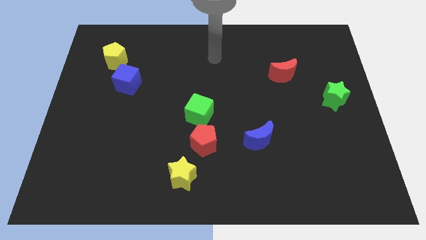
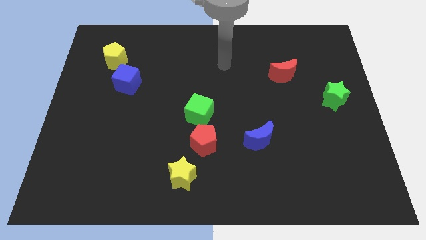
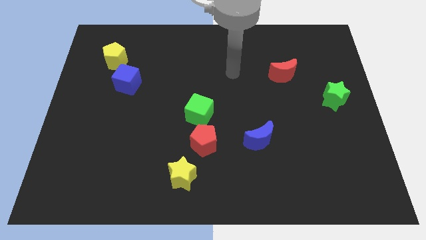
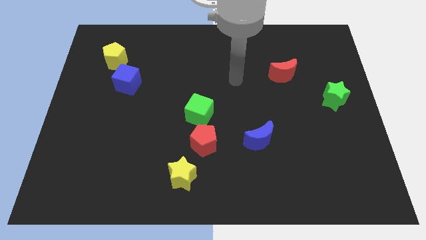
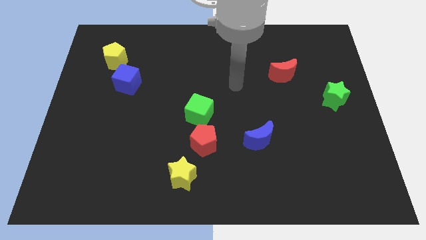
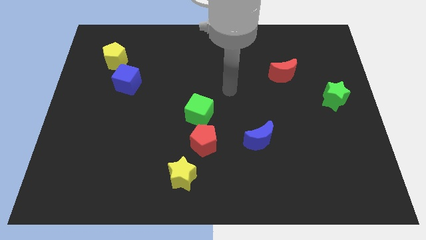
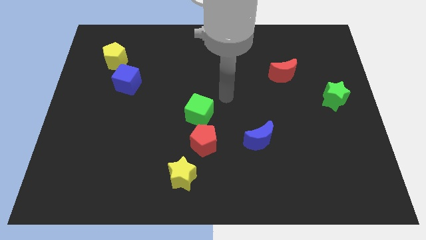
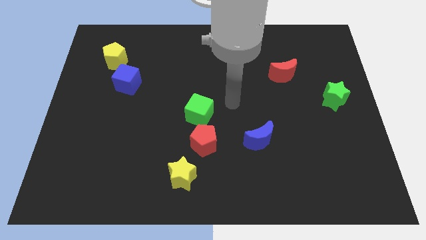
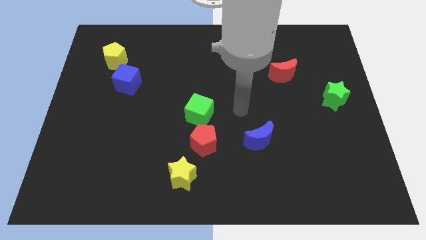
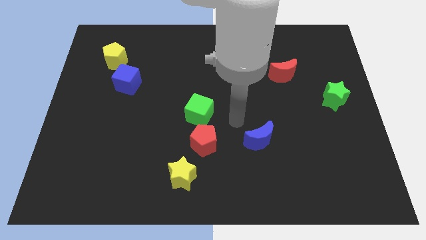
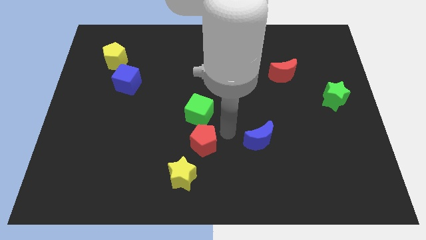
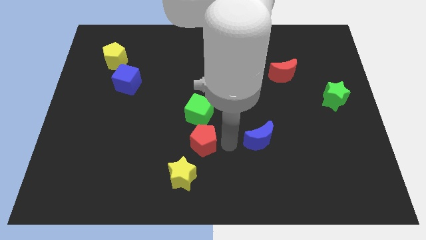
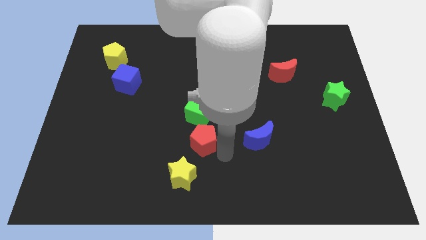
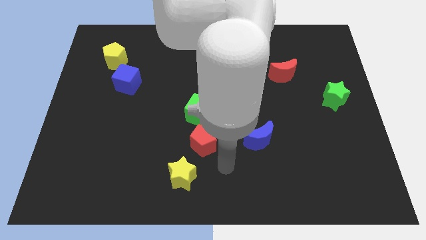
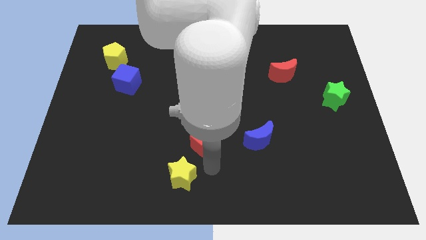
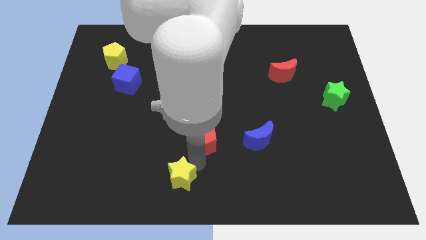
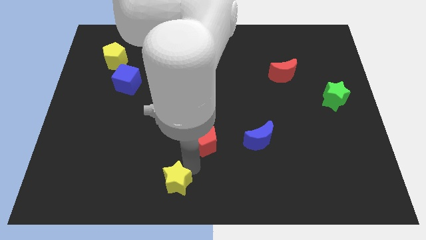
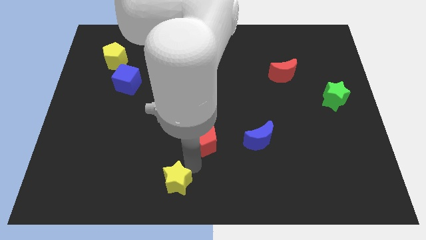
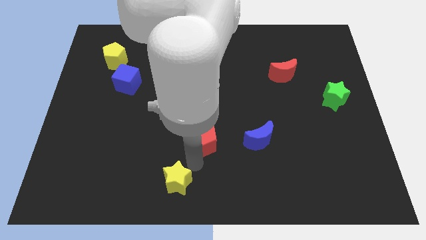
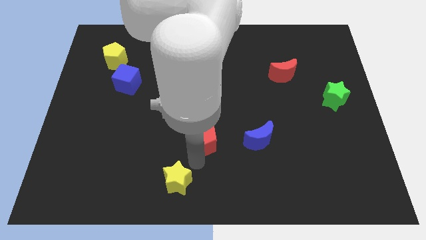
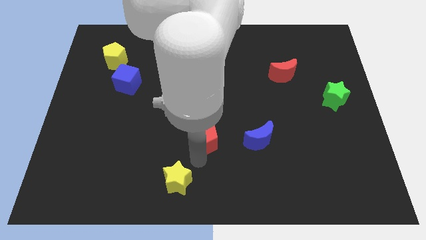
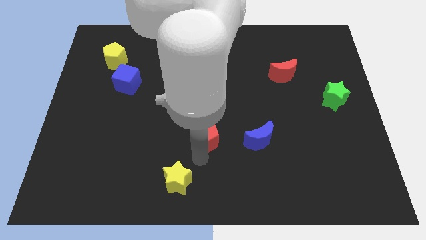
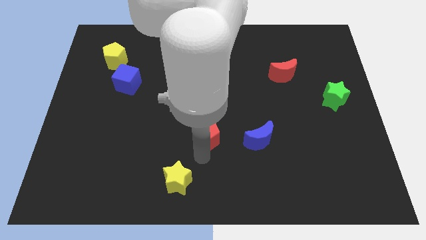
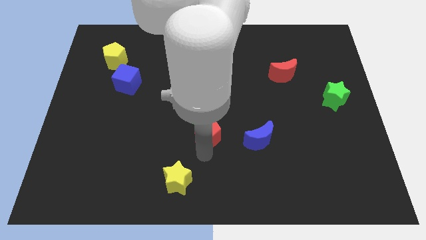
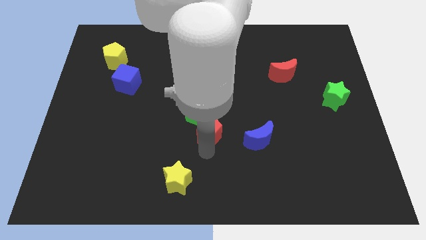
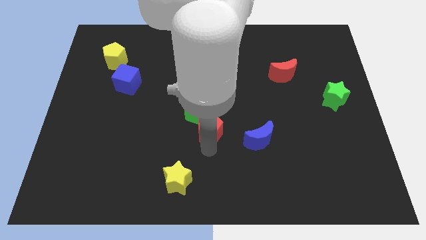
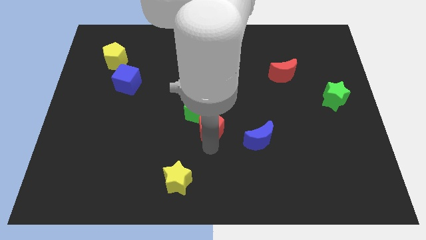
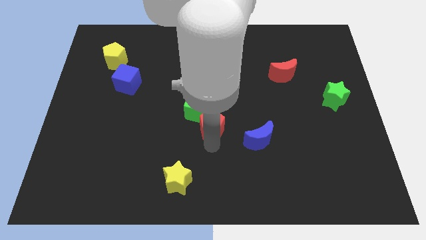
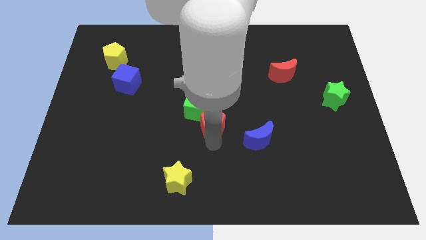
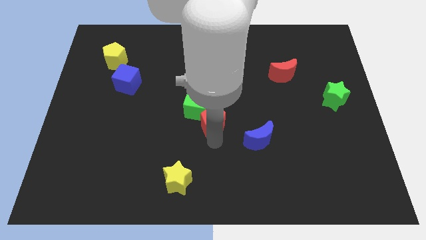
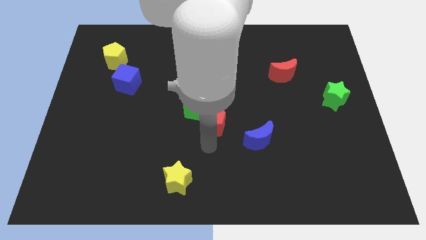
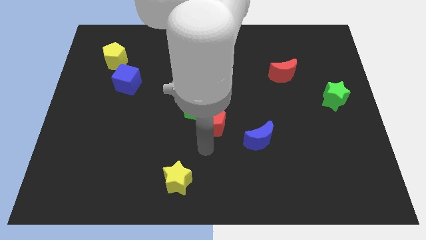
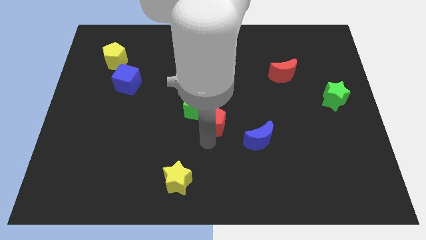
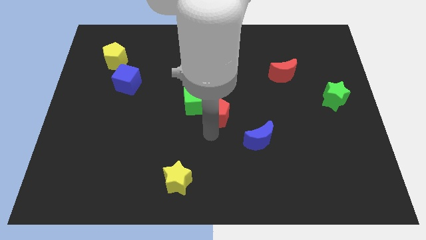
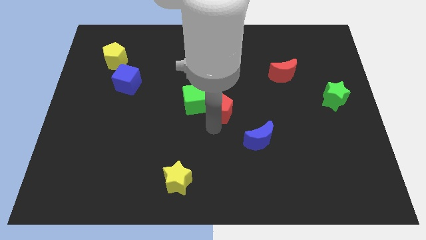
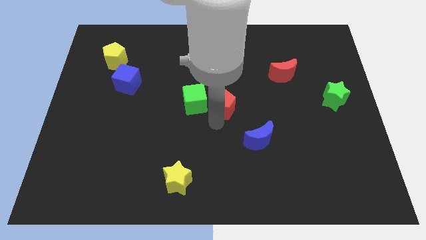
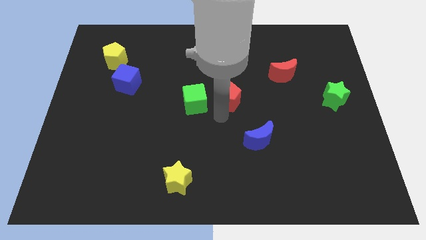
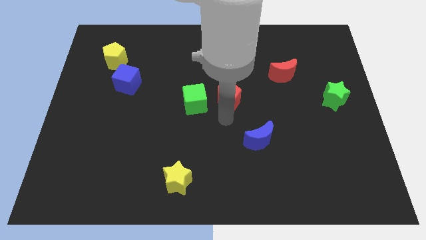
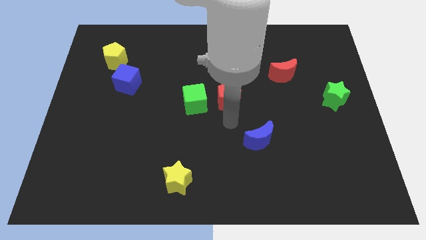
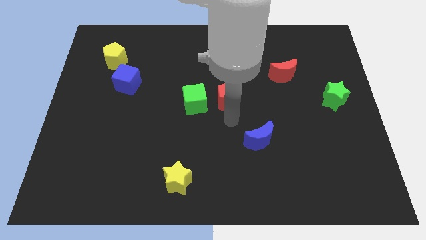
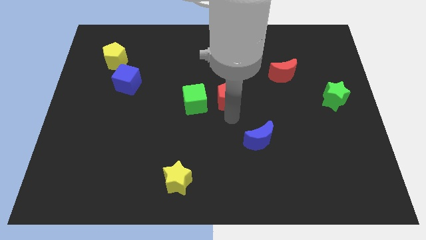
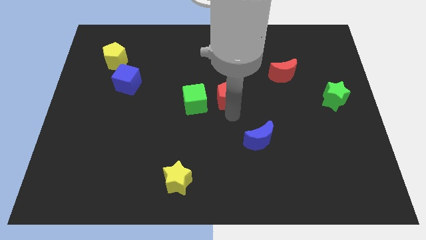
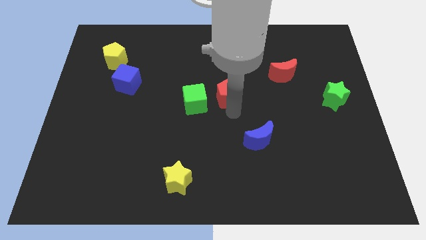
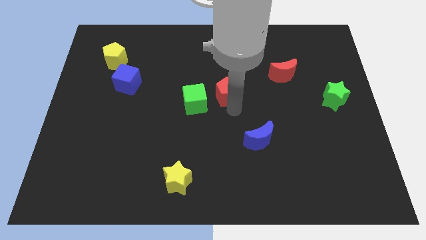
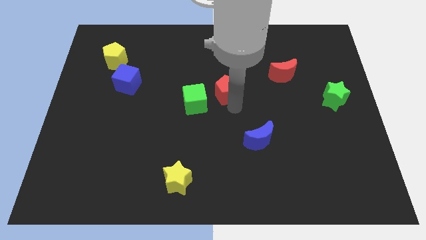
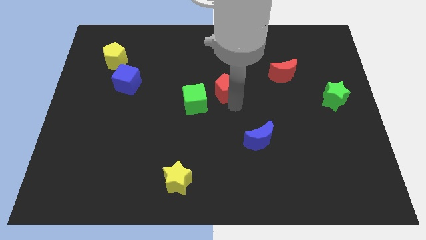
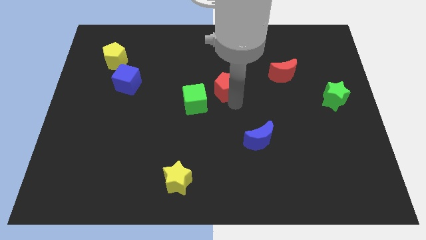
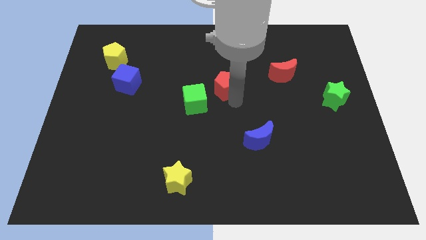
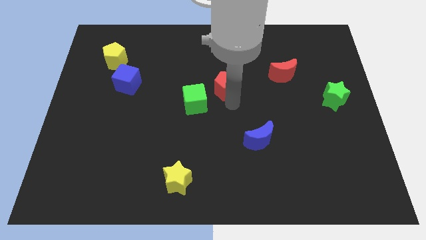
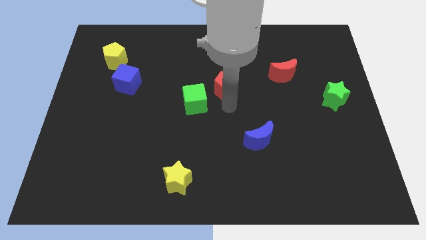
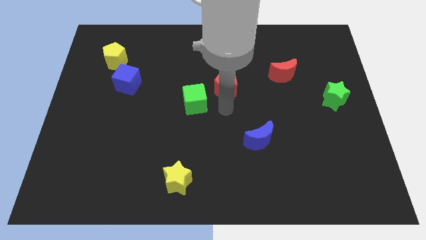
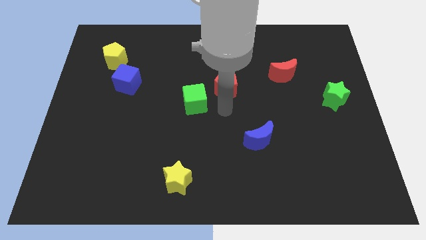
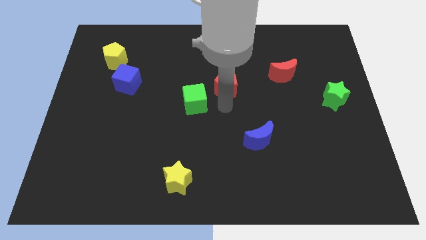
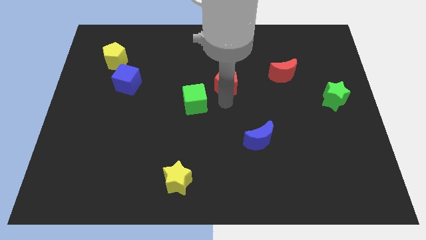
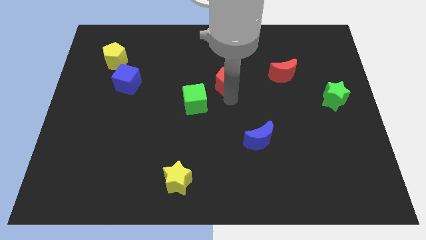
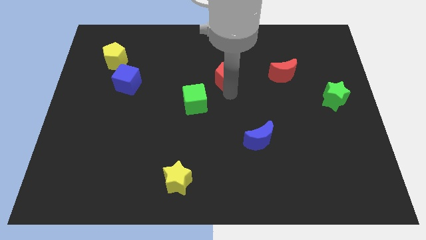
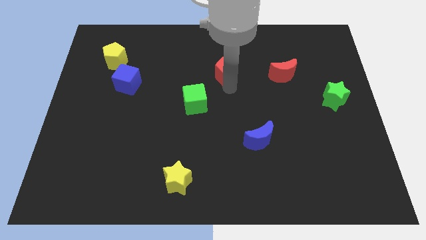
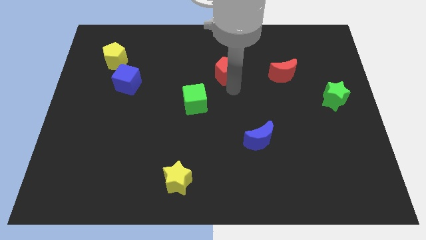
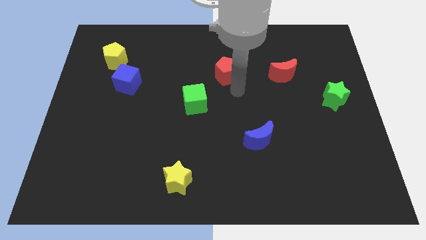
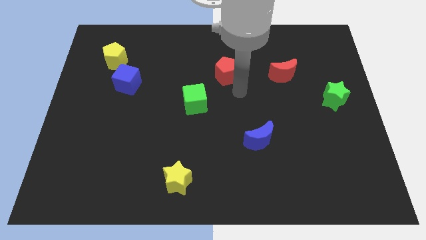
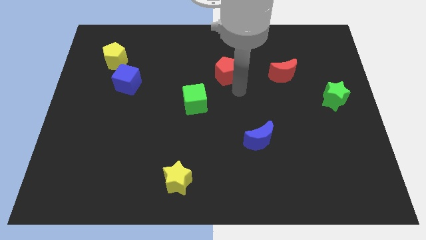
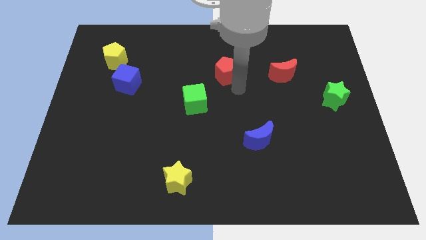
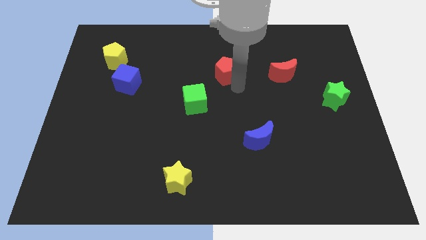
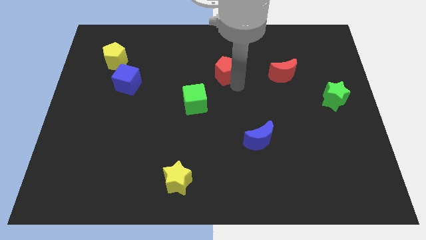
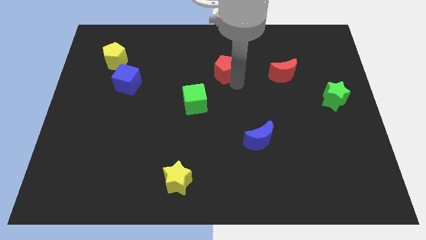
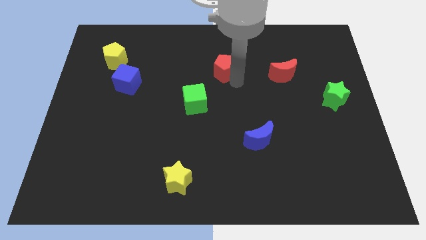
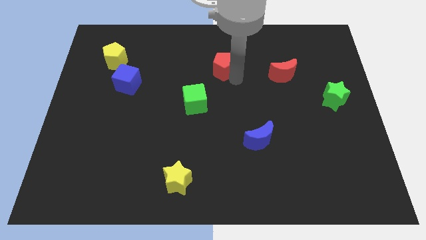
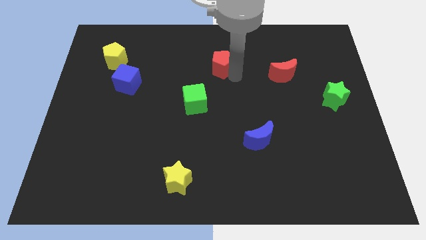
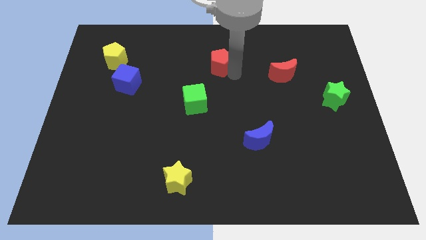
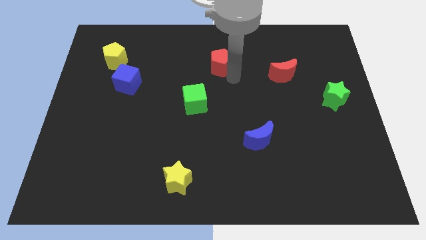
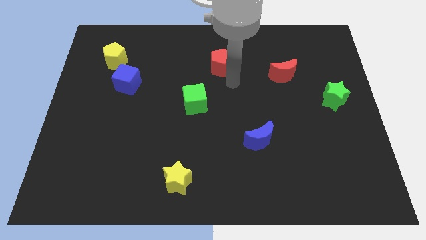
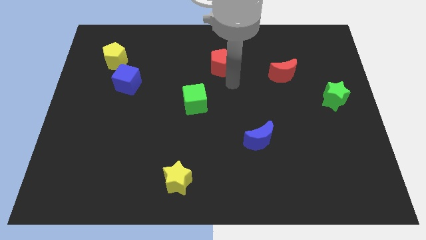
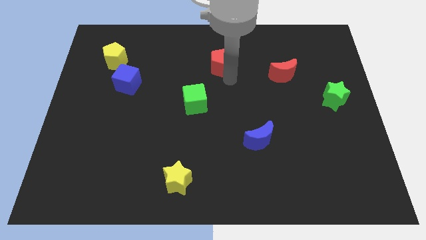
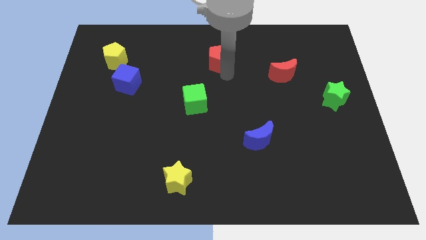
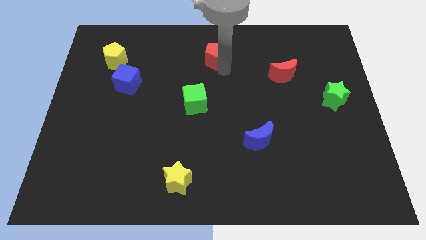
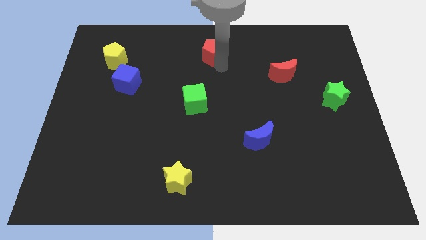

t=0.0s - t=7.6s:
slide the red pentagon to the towards your base
